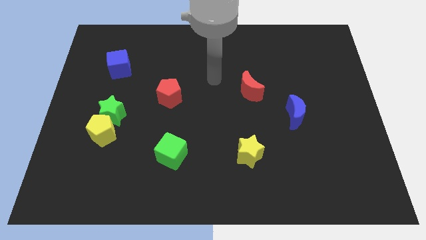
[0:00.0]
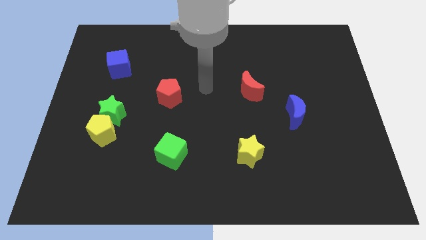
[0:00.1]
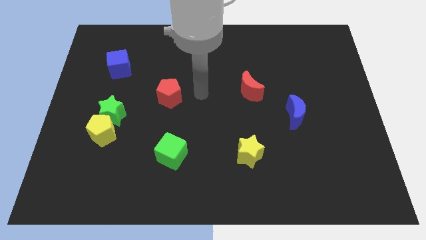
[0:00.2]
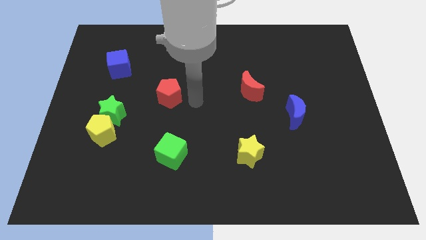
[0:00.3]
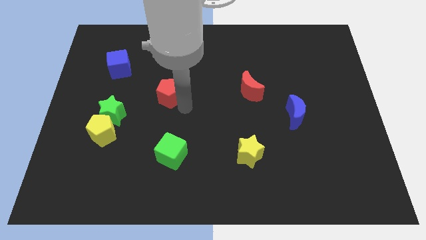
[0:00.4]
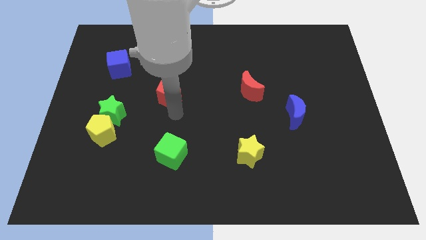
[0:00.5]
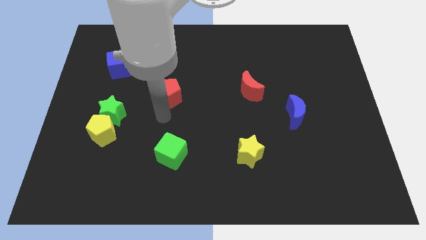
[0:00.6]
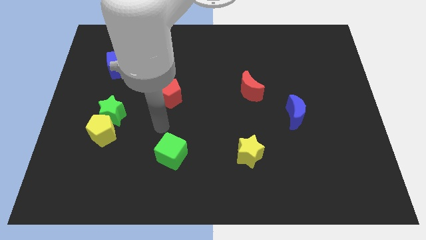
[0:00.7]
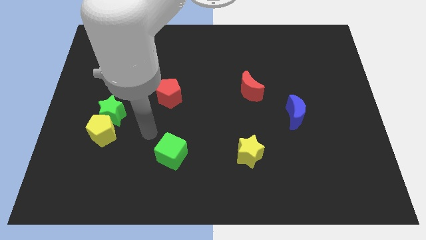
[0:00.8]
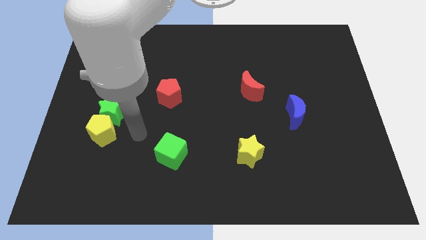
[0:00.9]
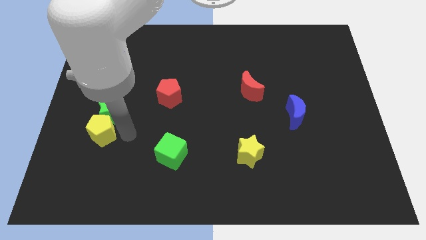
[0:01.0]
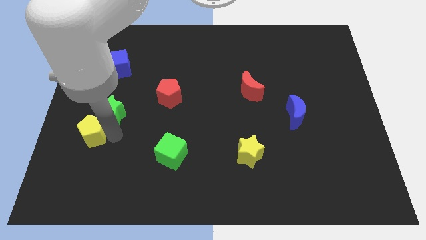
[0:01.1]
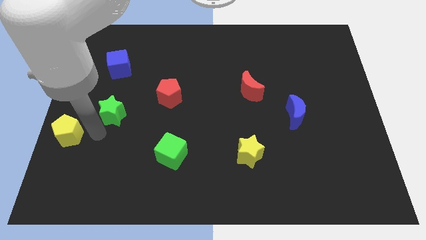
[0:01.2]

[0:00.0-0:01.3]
separate the green star from the yellow pentagon

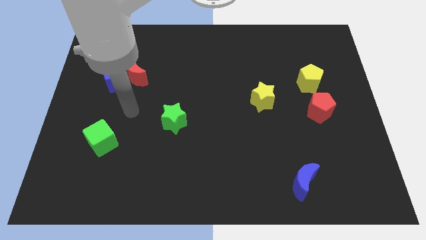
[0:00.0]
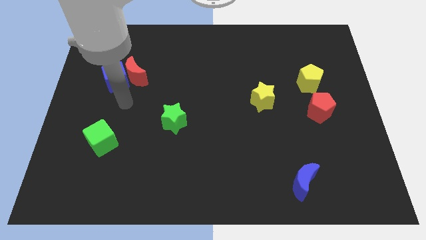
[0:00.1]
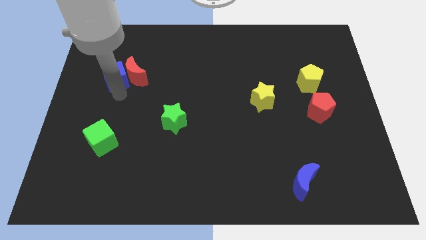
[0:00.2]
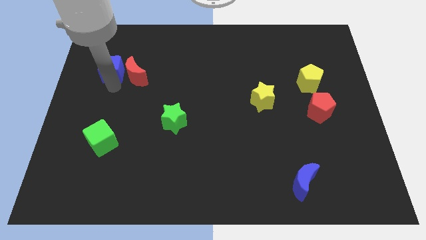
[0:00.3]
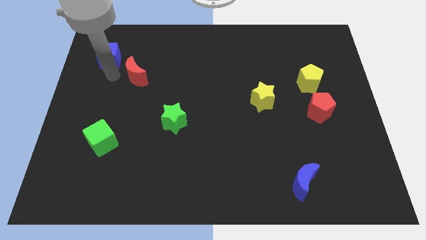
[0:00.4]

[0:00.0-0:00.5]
move the red moon away from the blue cube

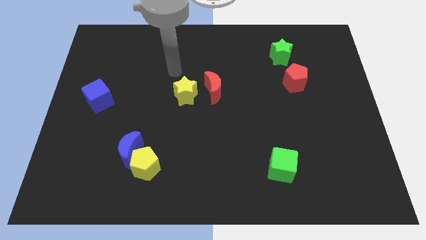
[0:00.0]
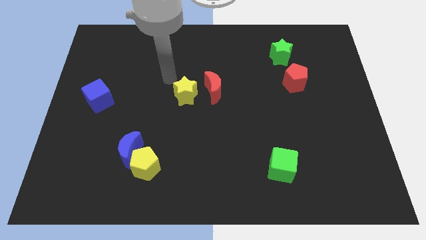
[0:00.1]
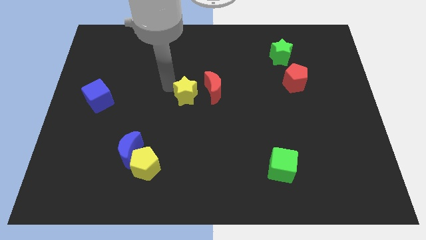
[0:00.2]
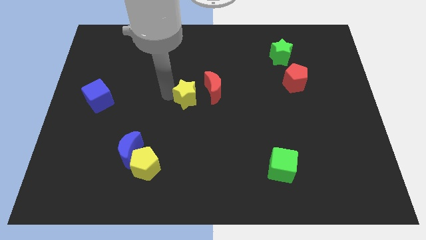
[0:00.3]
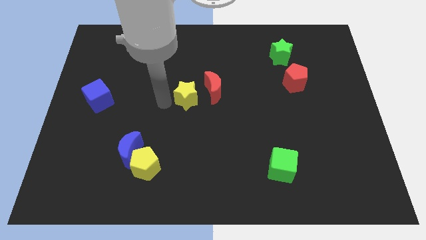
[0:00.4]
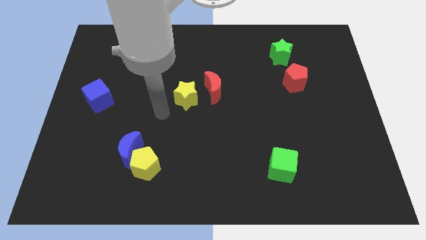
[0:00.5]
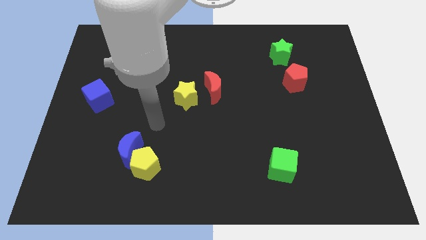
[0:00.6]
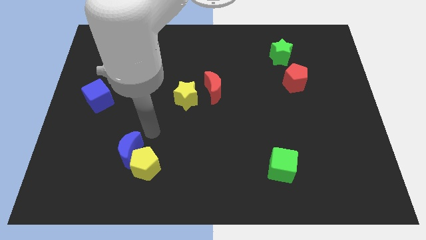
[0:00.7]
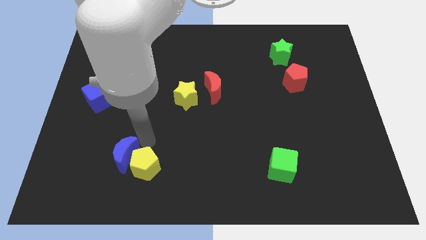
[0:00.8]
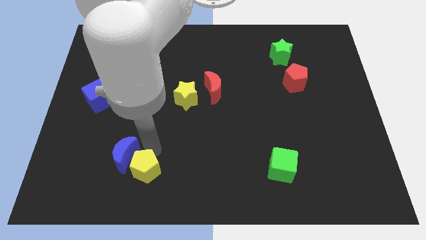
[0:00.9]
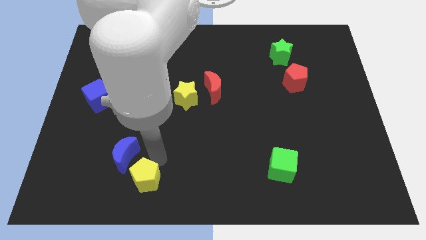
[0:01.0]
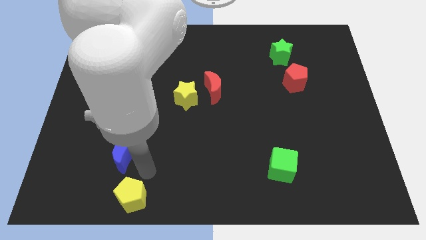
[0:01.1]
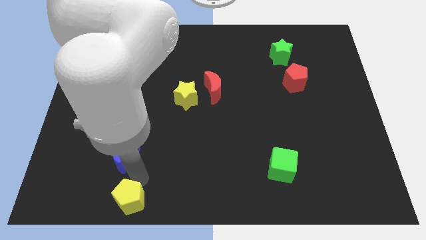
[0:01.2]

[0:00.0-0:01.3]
move the blue moon away from the yellow pentagon

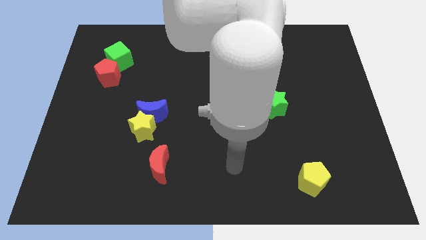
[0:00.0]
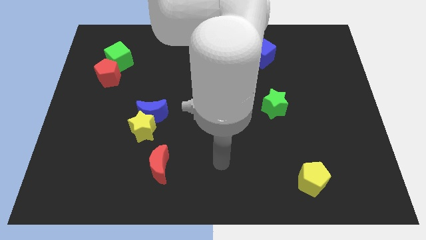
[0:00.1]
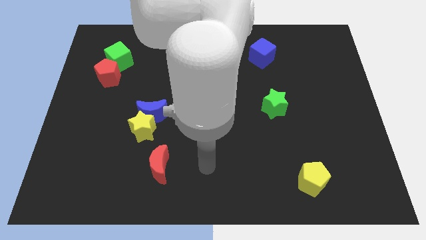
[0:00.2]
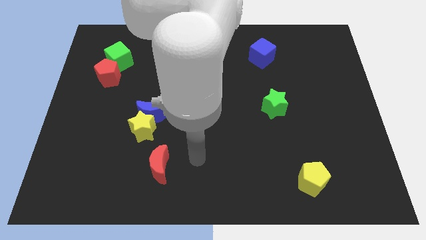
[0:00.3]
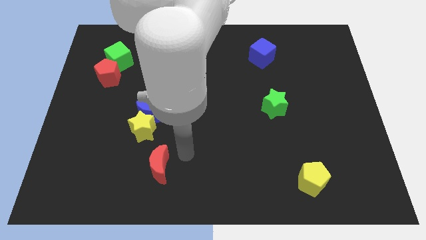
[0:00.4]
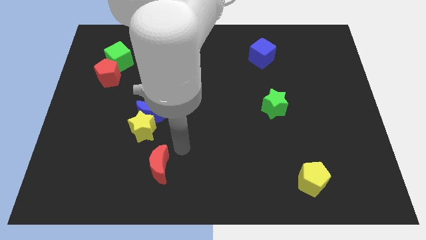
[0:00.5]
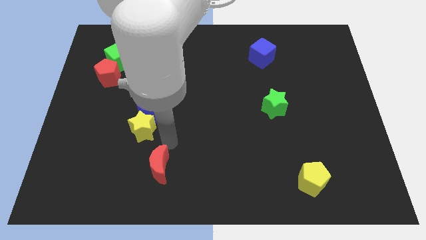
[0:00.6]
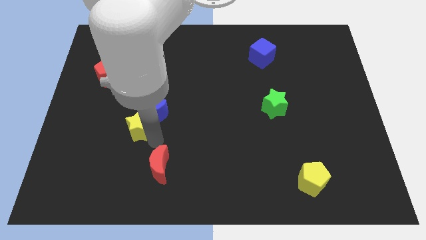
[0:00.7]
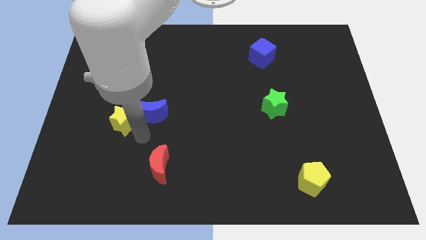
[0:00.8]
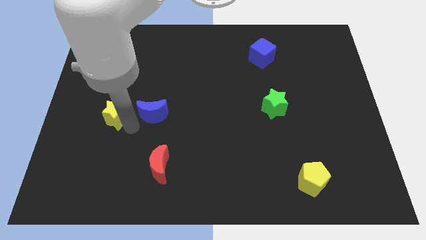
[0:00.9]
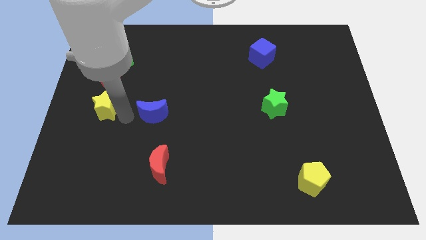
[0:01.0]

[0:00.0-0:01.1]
pull the blue moon apart from the yellow star

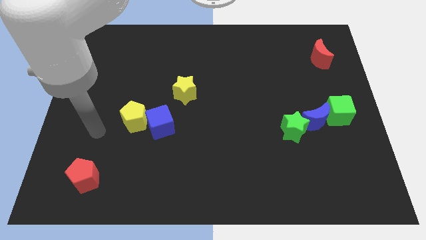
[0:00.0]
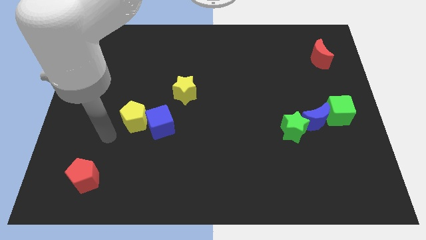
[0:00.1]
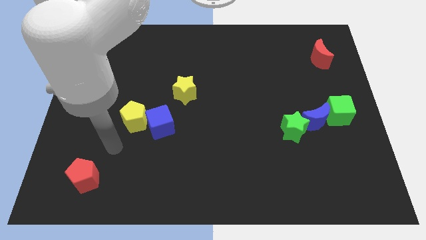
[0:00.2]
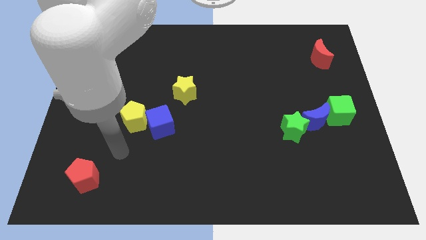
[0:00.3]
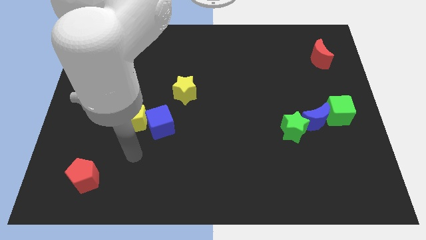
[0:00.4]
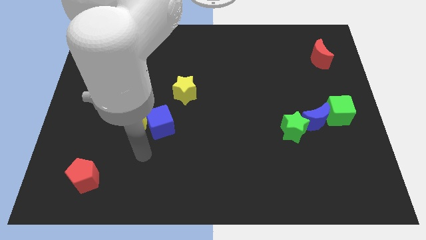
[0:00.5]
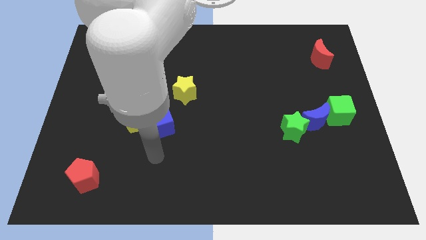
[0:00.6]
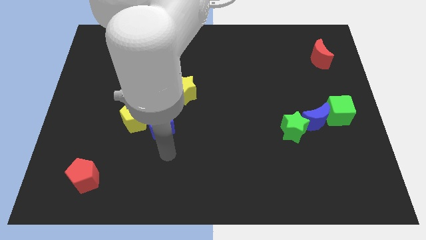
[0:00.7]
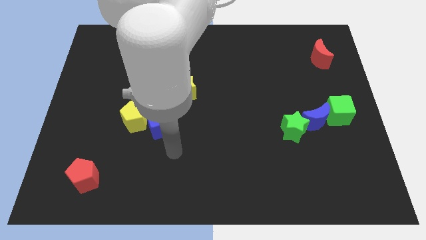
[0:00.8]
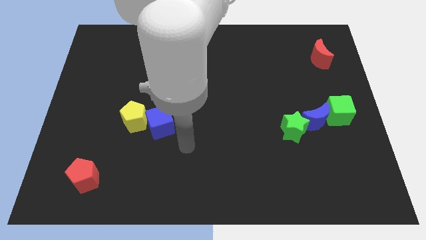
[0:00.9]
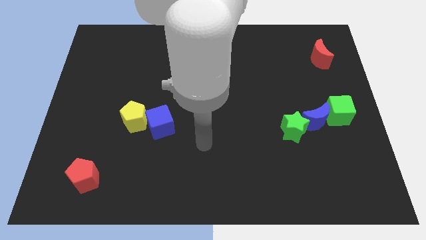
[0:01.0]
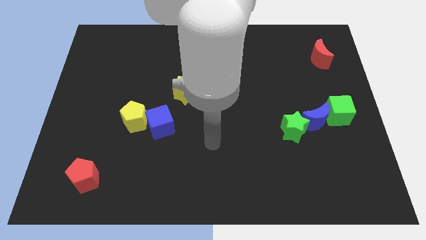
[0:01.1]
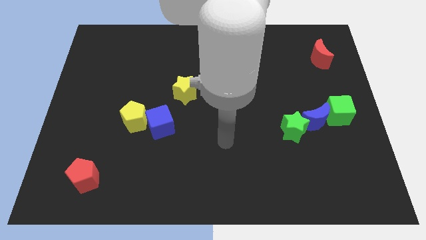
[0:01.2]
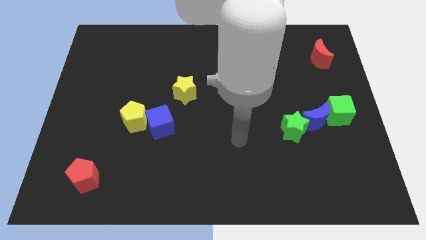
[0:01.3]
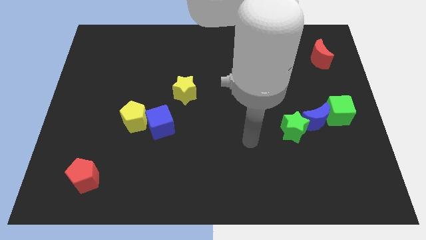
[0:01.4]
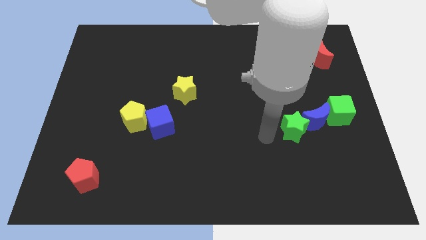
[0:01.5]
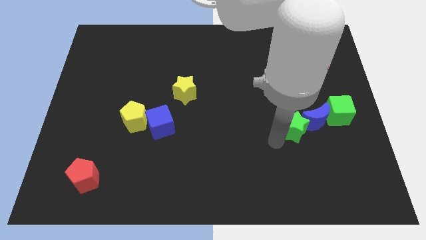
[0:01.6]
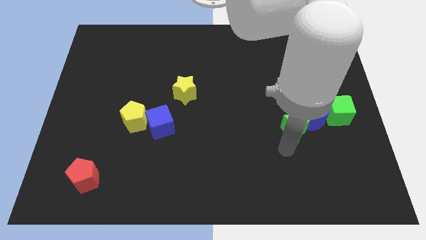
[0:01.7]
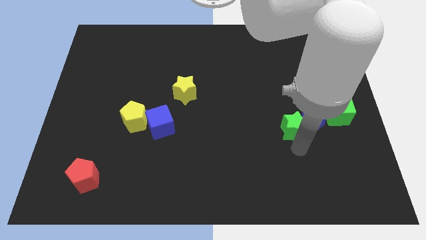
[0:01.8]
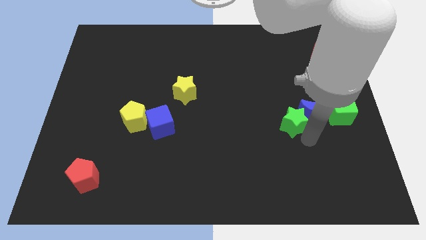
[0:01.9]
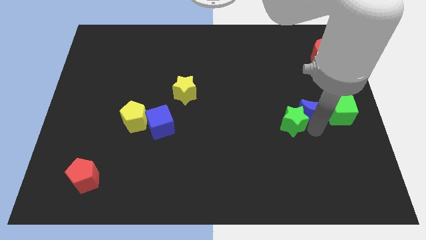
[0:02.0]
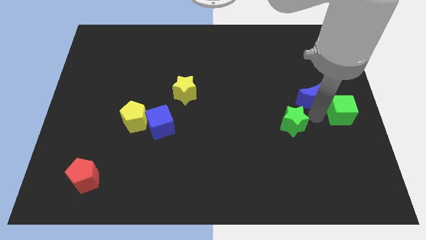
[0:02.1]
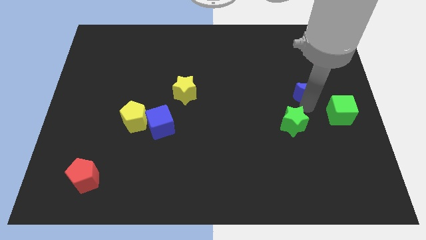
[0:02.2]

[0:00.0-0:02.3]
pull the green star apart from the blue moon

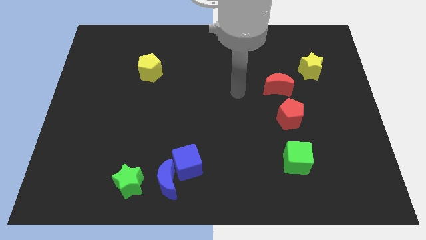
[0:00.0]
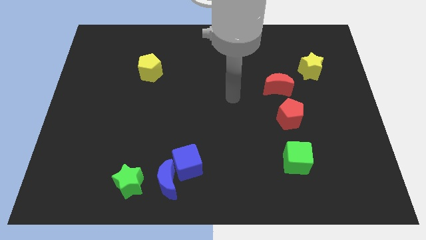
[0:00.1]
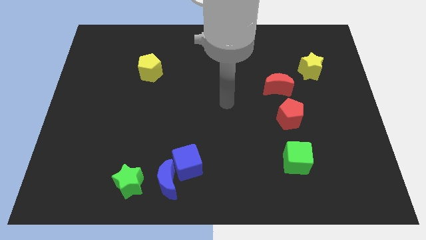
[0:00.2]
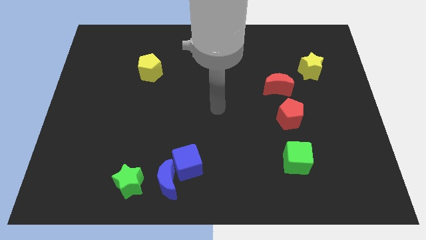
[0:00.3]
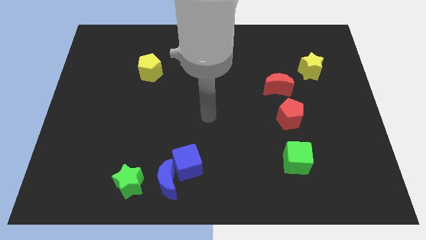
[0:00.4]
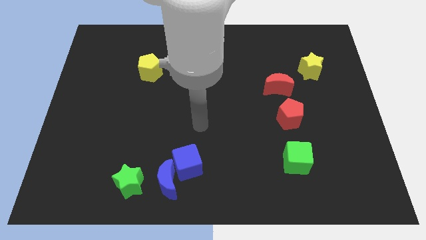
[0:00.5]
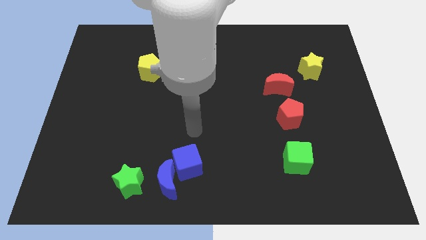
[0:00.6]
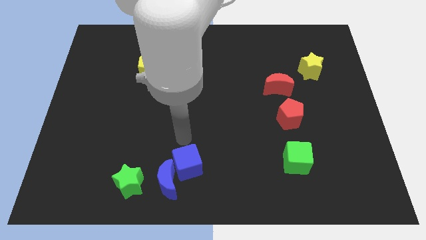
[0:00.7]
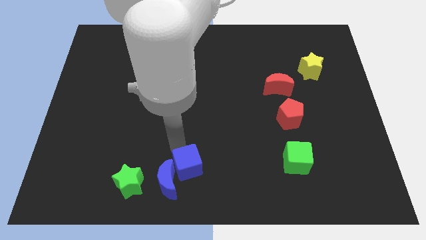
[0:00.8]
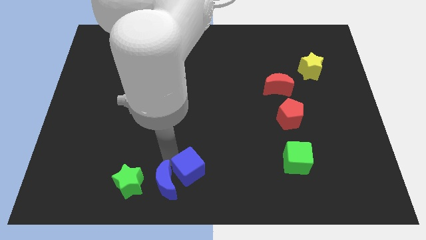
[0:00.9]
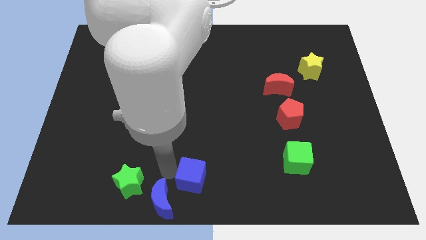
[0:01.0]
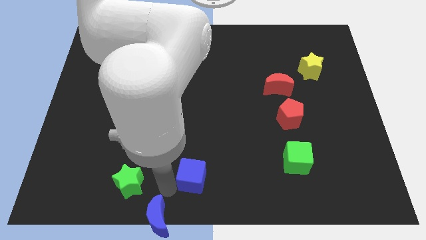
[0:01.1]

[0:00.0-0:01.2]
move the blue cube away from the blue moon

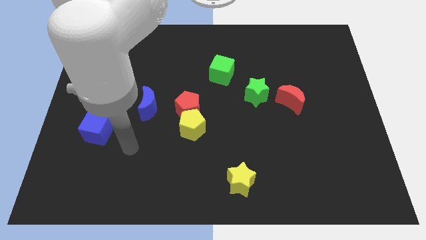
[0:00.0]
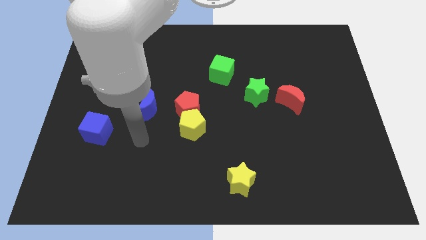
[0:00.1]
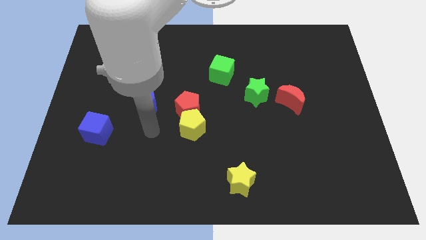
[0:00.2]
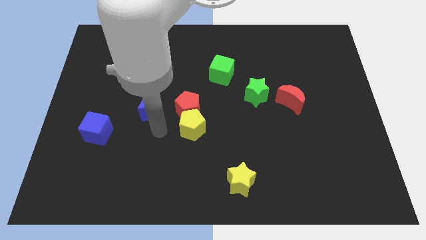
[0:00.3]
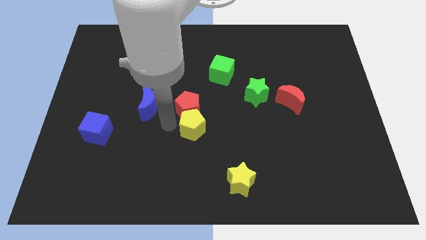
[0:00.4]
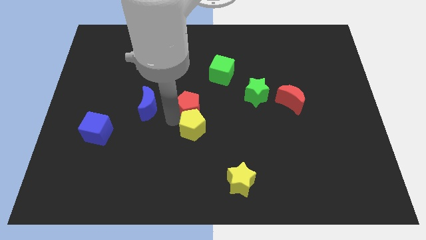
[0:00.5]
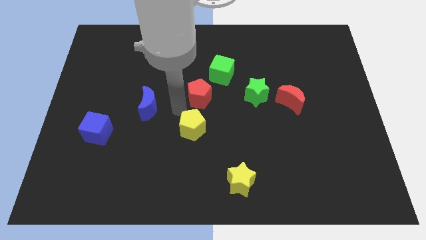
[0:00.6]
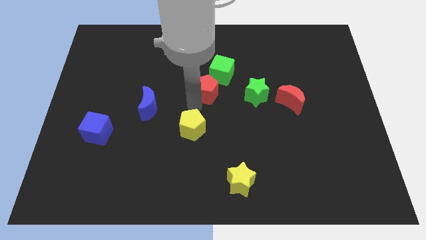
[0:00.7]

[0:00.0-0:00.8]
separate the yellow pentagon from the red pentagon

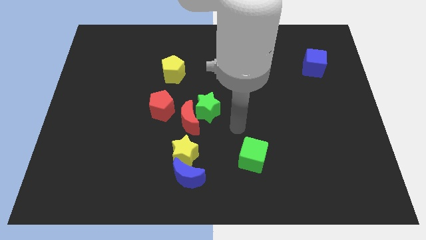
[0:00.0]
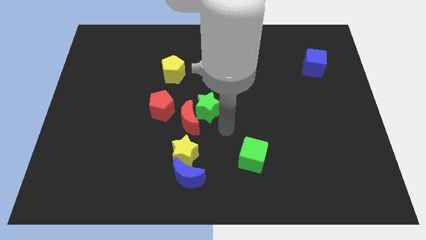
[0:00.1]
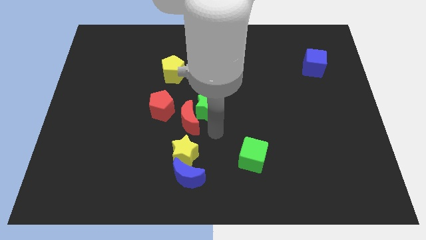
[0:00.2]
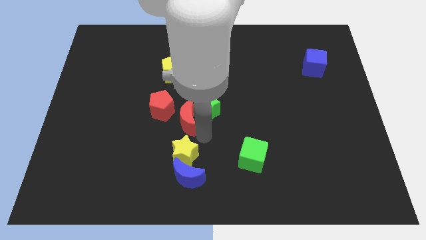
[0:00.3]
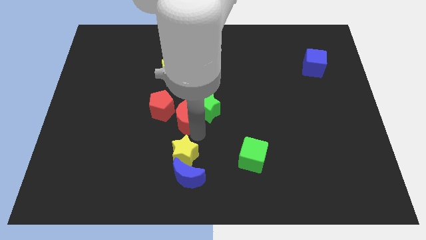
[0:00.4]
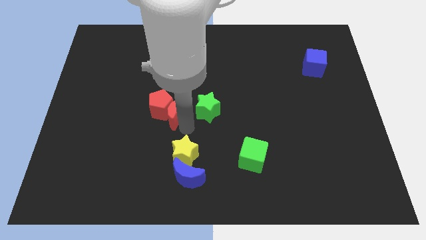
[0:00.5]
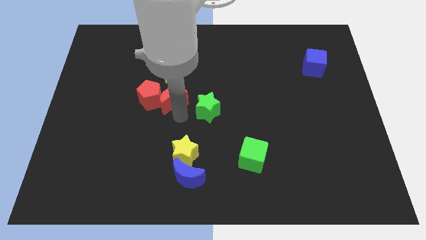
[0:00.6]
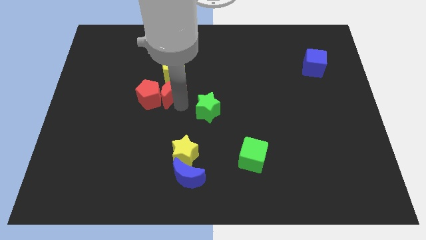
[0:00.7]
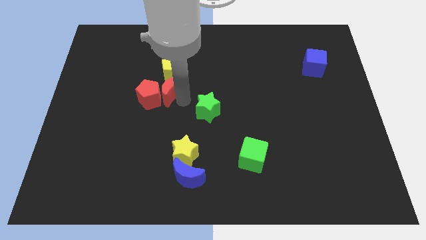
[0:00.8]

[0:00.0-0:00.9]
pull the green star apart from the red moon

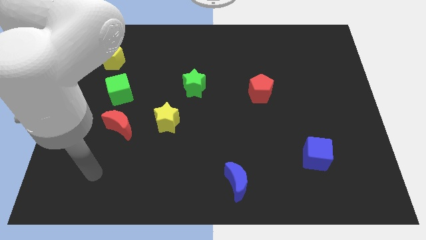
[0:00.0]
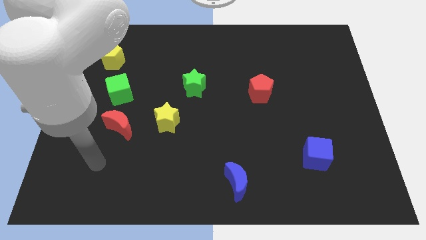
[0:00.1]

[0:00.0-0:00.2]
move the red moon away from the green cube
